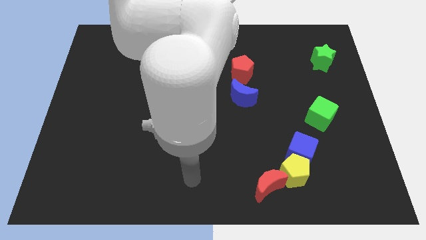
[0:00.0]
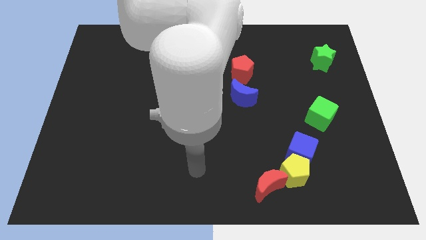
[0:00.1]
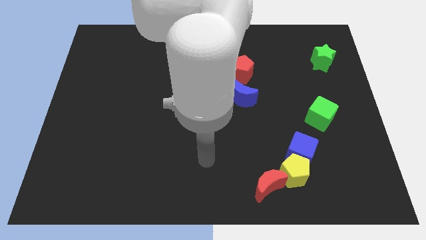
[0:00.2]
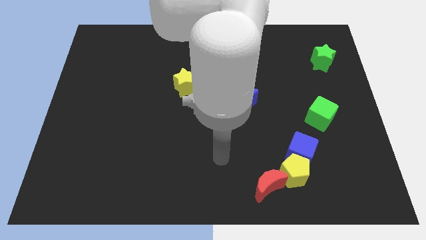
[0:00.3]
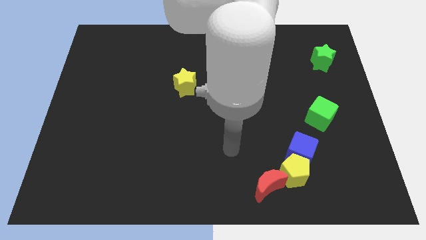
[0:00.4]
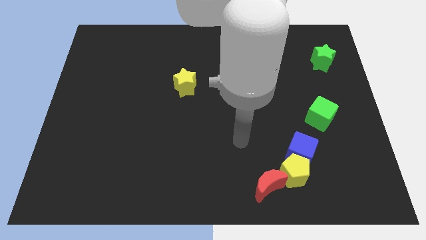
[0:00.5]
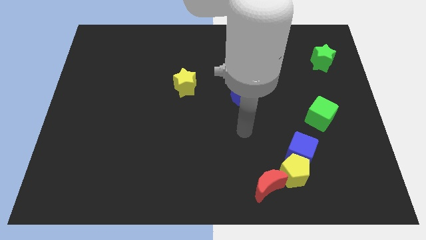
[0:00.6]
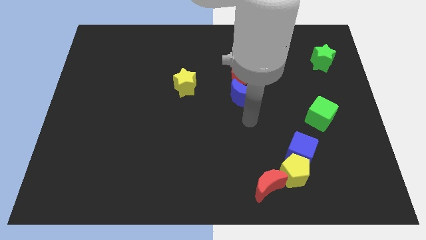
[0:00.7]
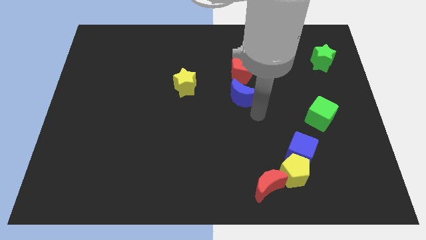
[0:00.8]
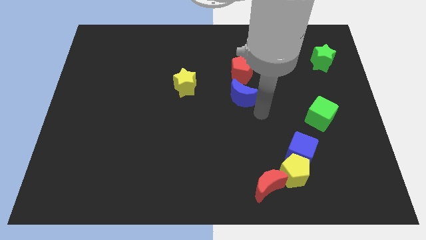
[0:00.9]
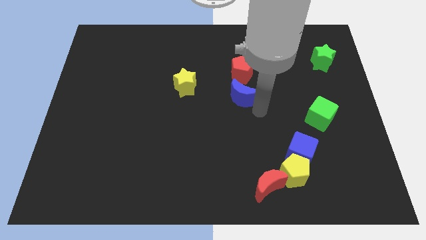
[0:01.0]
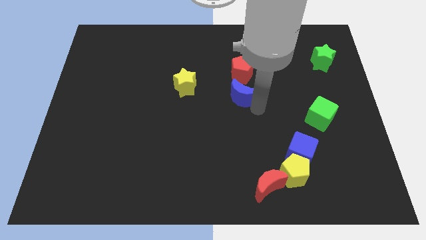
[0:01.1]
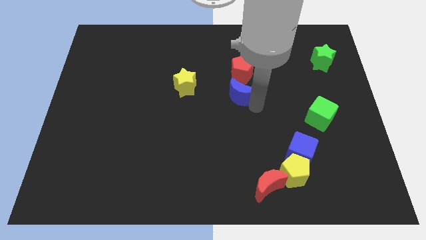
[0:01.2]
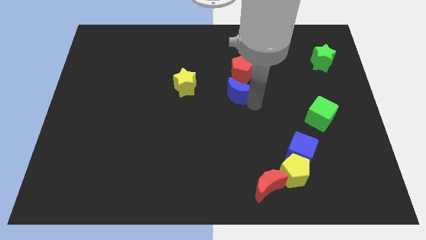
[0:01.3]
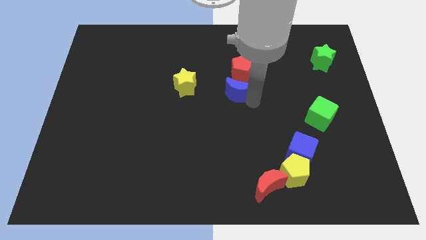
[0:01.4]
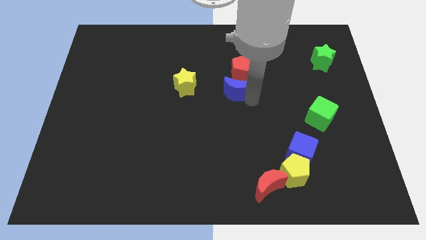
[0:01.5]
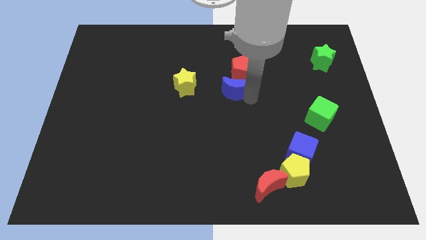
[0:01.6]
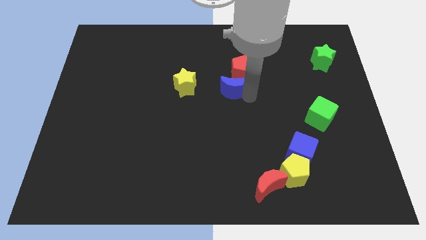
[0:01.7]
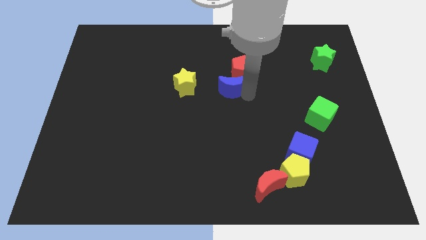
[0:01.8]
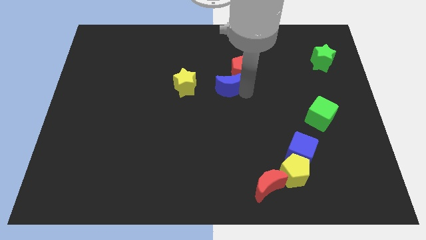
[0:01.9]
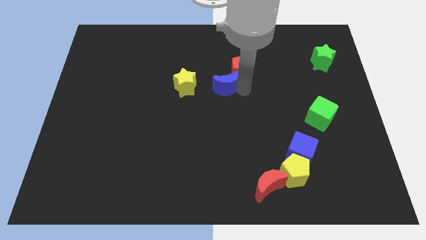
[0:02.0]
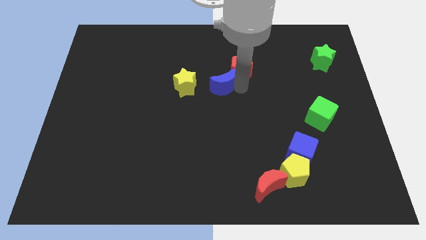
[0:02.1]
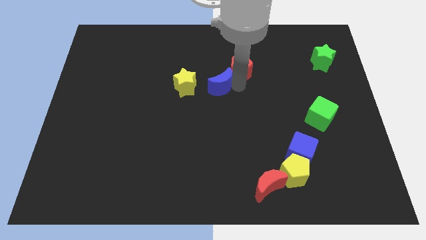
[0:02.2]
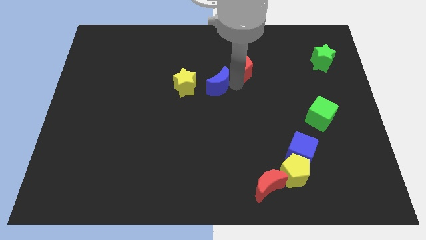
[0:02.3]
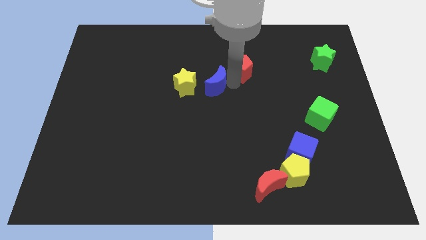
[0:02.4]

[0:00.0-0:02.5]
push the blue moon upwards and to the left diagonally slightly

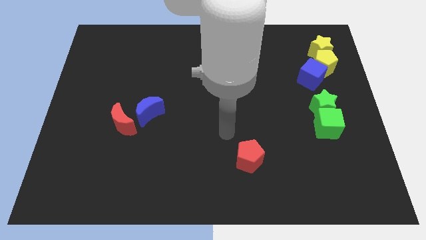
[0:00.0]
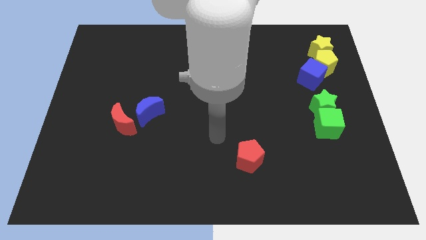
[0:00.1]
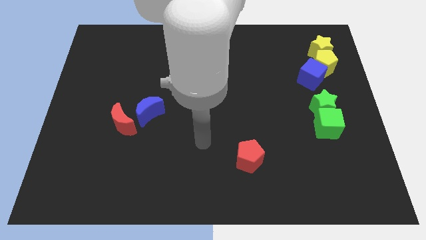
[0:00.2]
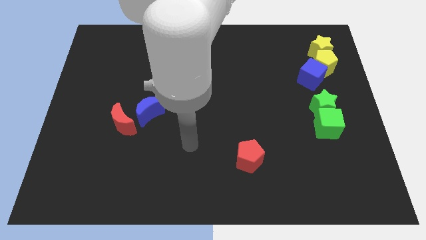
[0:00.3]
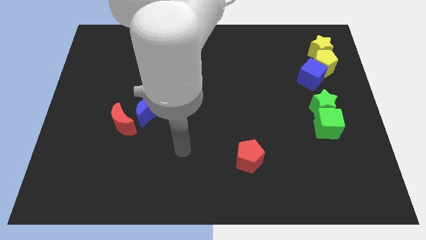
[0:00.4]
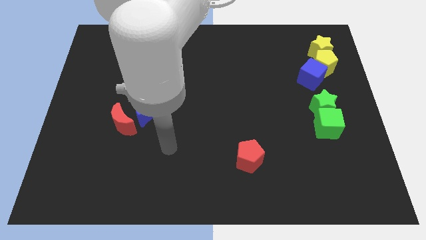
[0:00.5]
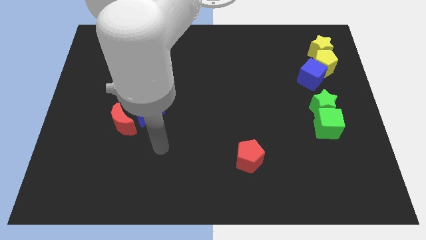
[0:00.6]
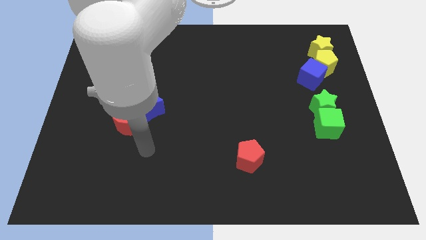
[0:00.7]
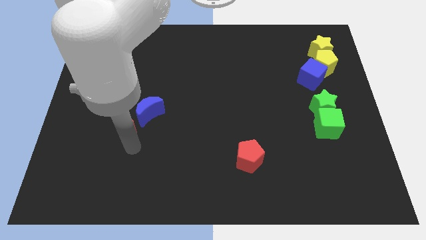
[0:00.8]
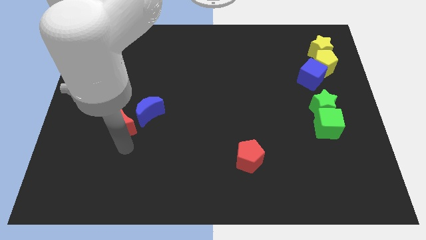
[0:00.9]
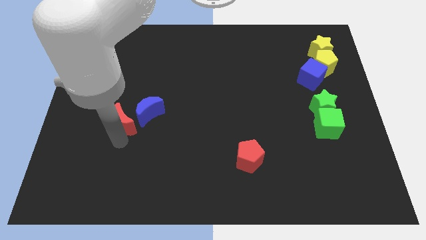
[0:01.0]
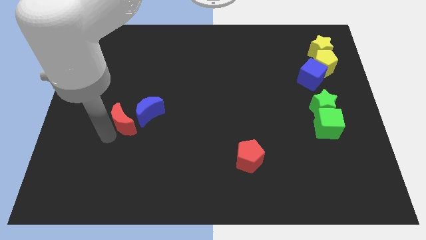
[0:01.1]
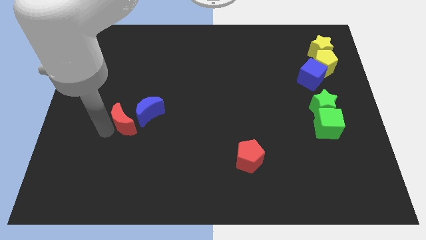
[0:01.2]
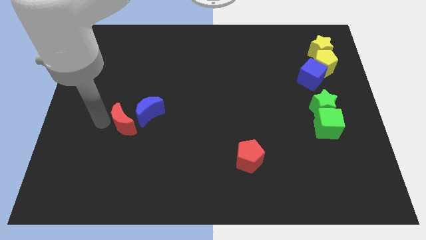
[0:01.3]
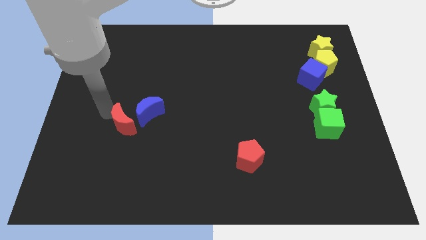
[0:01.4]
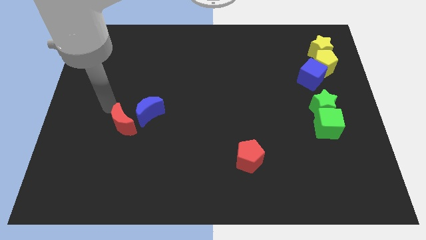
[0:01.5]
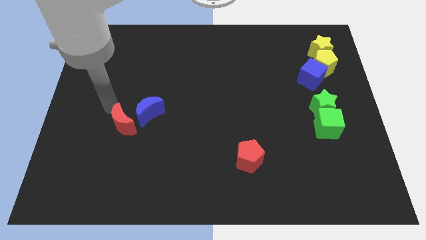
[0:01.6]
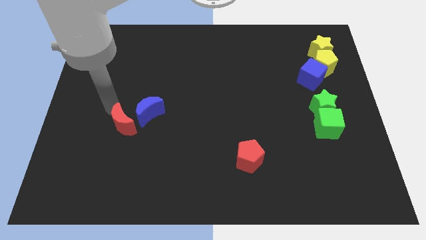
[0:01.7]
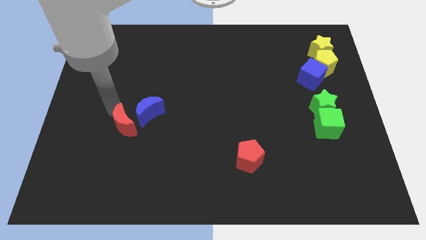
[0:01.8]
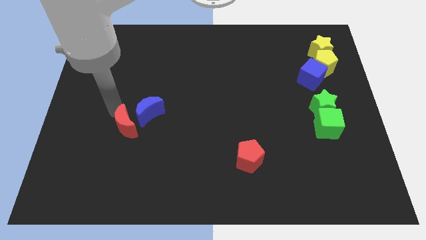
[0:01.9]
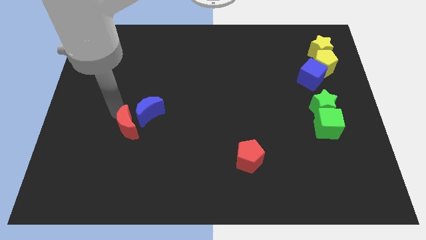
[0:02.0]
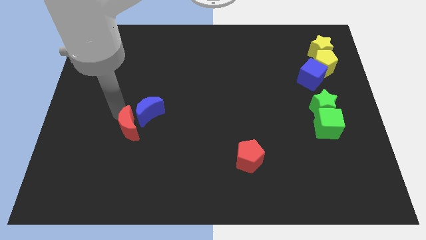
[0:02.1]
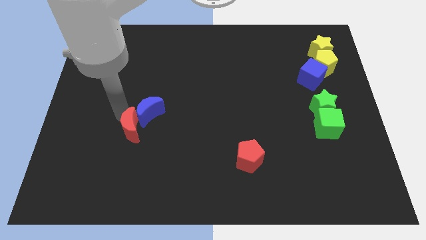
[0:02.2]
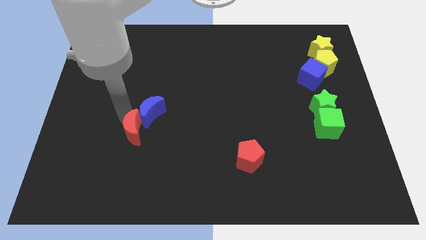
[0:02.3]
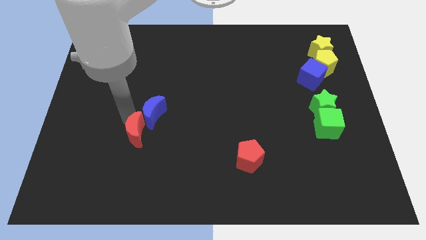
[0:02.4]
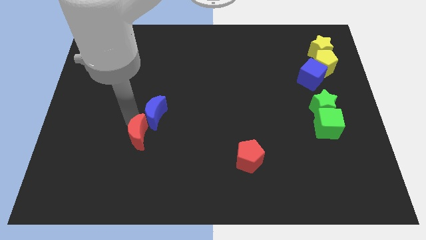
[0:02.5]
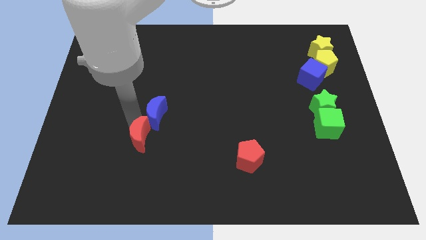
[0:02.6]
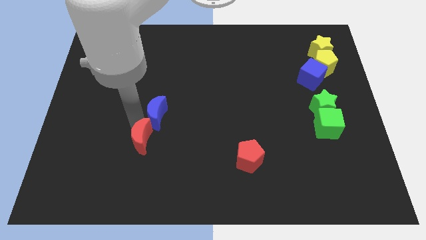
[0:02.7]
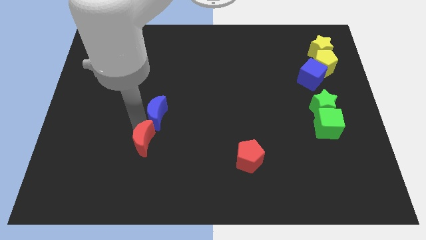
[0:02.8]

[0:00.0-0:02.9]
slightly slide the red moon diagonally down and to the right

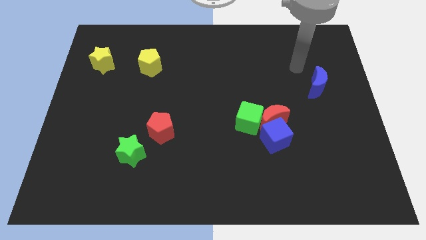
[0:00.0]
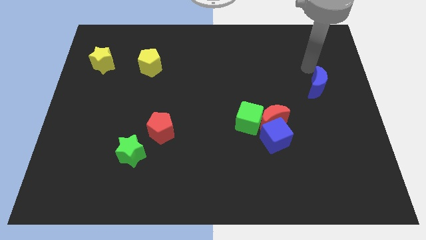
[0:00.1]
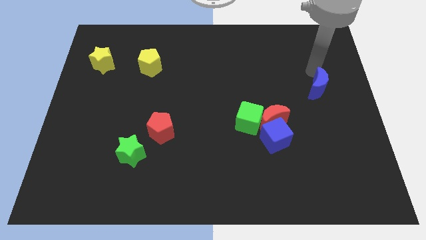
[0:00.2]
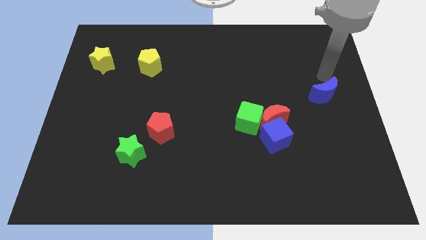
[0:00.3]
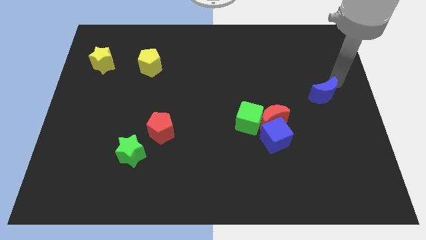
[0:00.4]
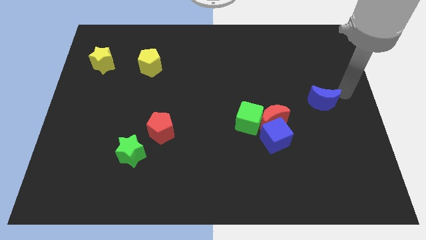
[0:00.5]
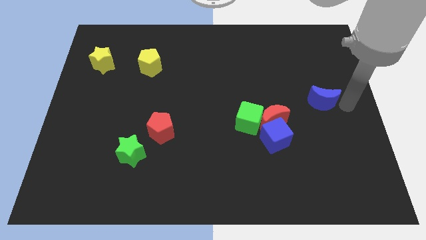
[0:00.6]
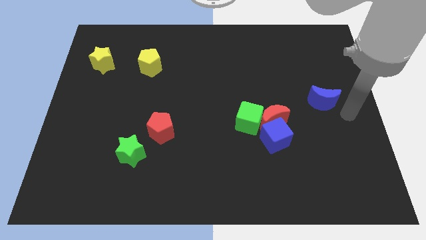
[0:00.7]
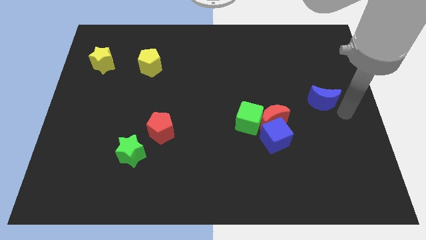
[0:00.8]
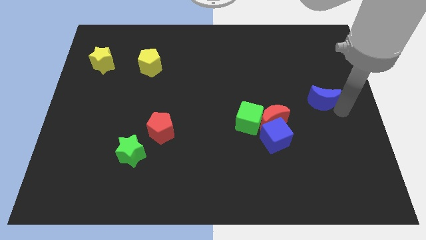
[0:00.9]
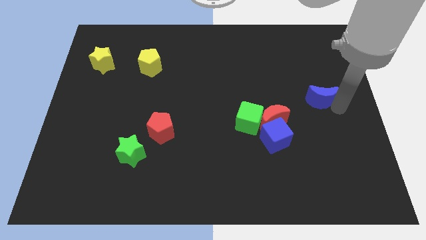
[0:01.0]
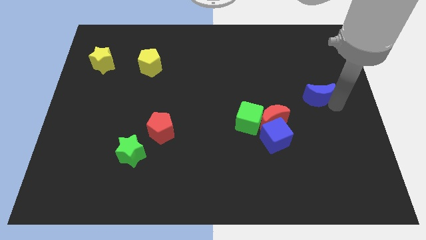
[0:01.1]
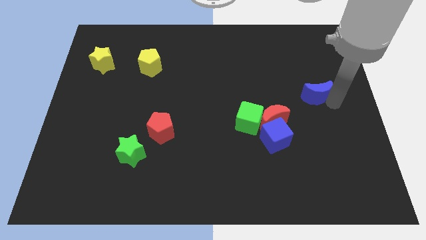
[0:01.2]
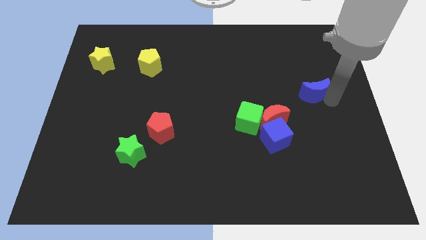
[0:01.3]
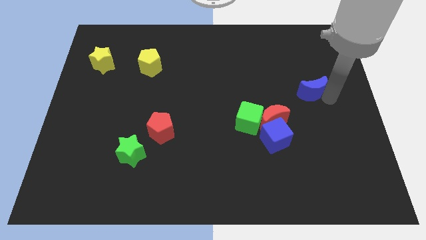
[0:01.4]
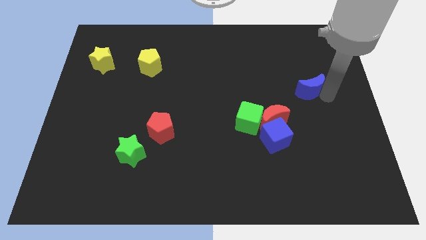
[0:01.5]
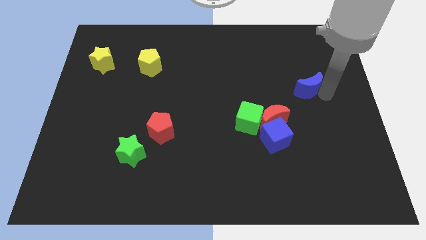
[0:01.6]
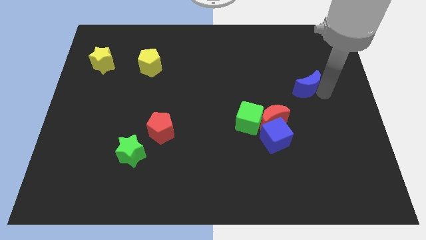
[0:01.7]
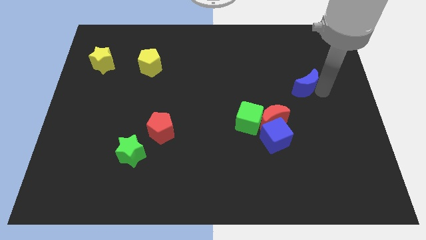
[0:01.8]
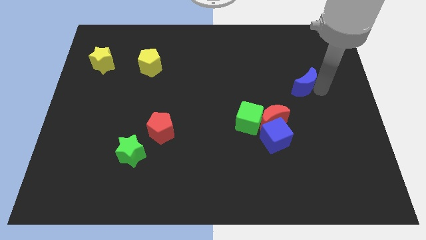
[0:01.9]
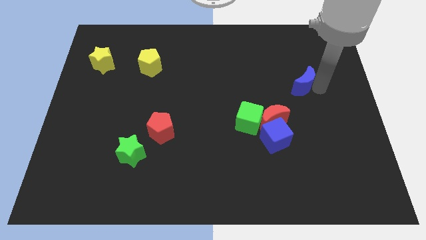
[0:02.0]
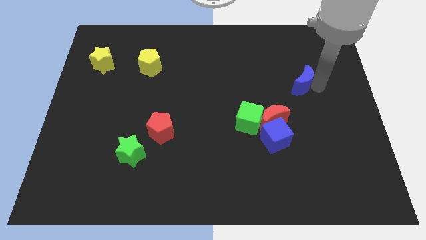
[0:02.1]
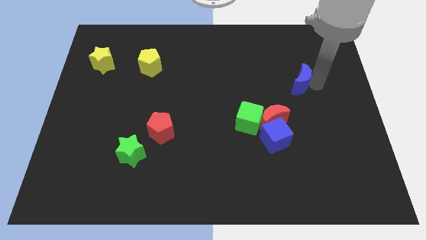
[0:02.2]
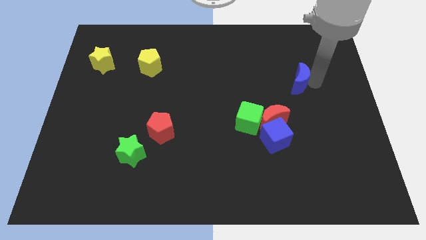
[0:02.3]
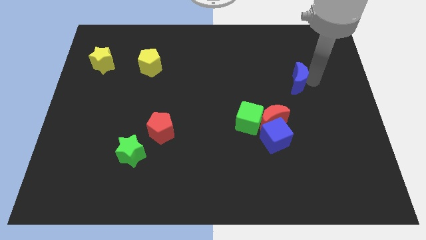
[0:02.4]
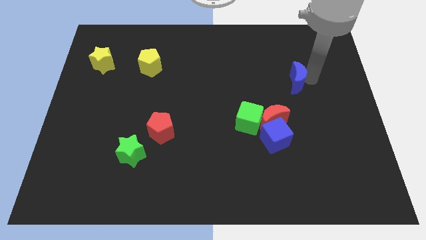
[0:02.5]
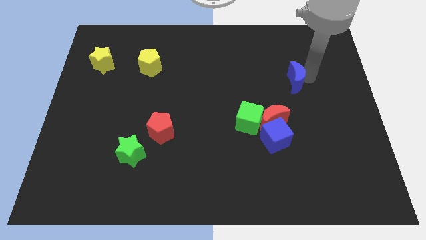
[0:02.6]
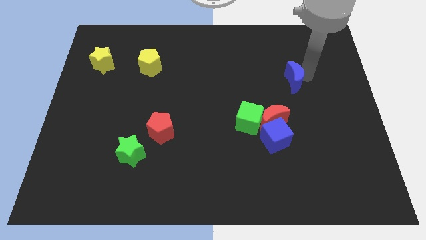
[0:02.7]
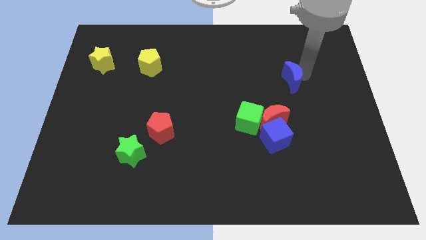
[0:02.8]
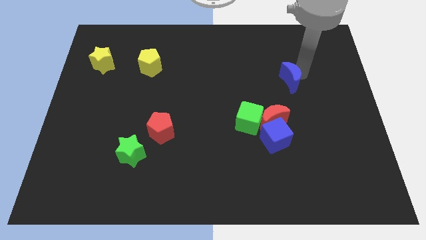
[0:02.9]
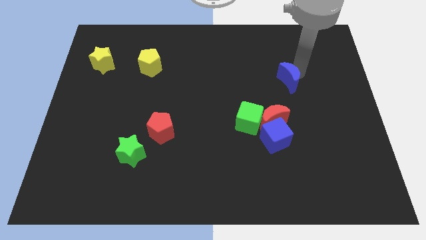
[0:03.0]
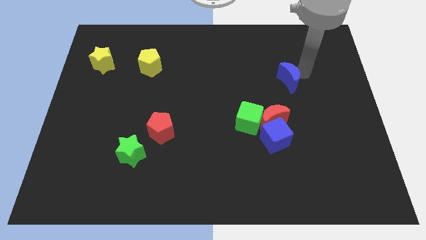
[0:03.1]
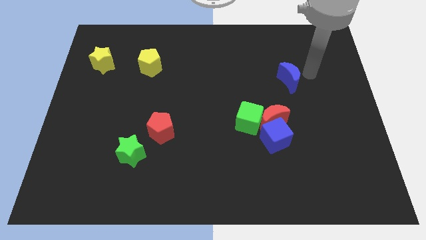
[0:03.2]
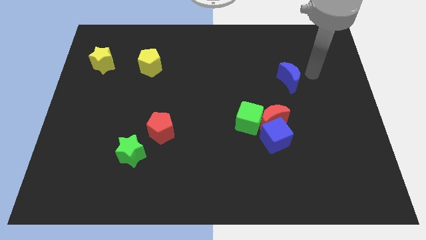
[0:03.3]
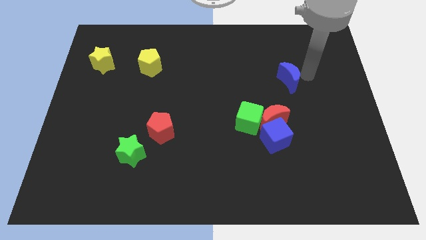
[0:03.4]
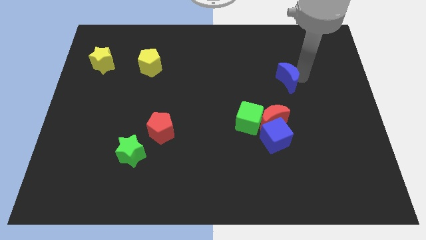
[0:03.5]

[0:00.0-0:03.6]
slide the blue moon to the left a little
